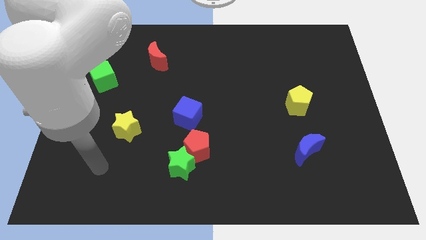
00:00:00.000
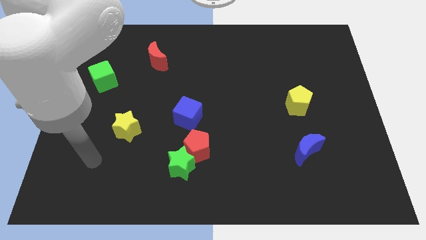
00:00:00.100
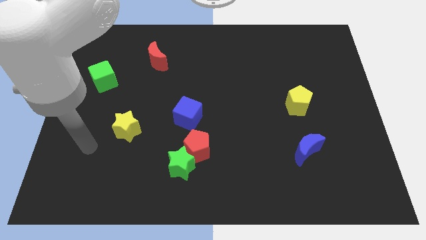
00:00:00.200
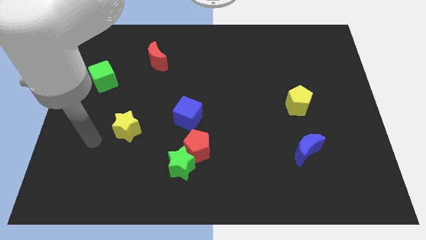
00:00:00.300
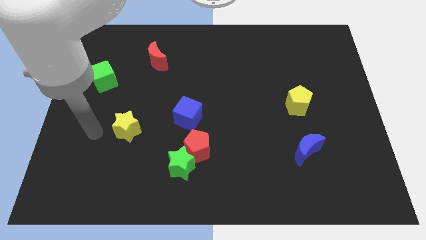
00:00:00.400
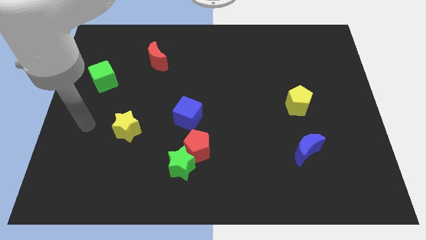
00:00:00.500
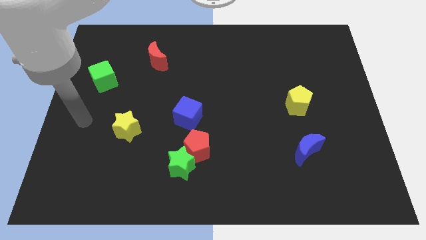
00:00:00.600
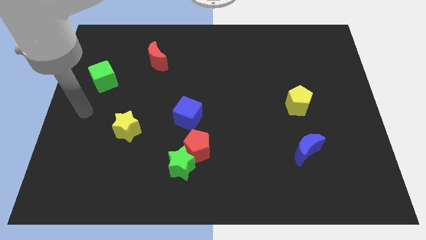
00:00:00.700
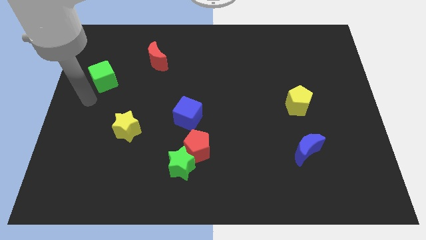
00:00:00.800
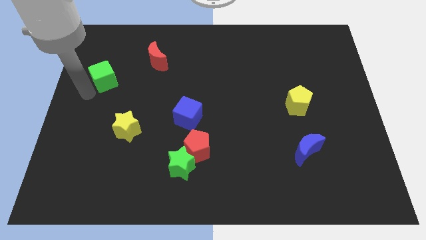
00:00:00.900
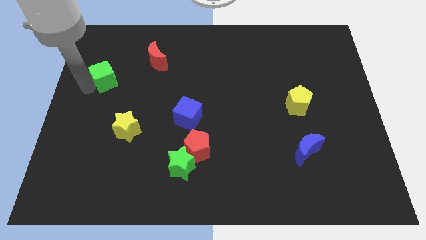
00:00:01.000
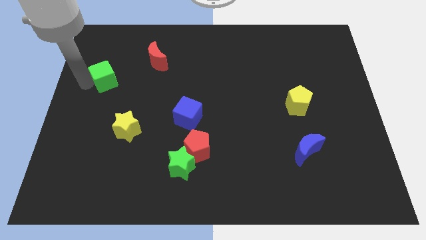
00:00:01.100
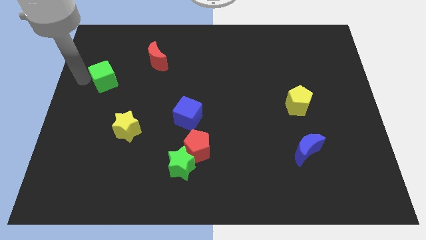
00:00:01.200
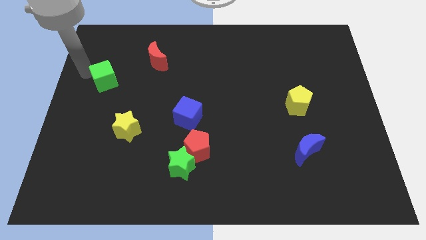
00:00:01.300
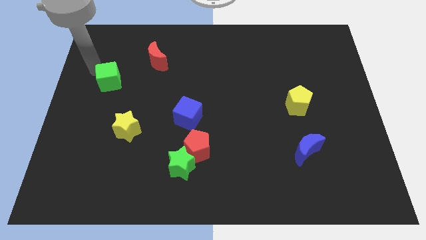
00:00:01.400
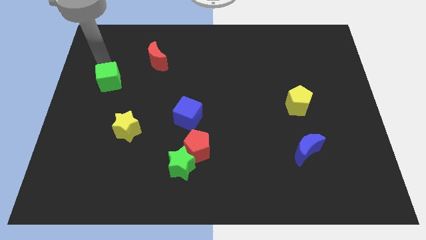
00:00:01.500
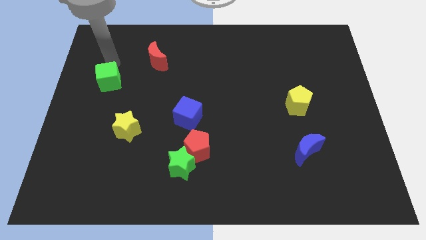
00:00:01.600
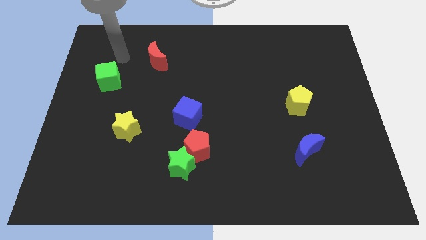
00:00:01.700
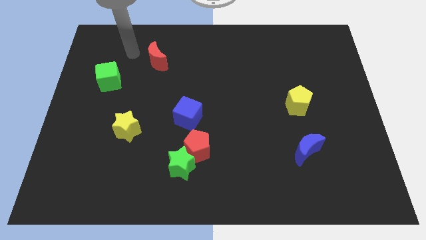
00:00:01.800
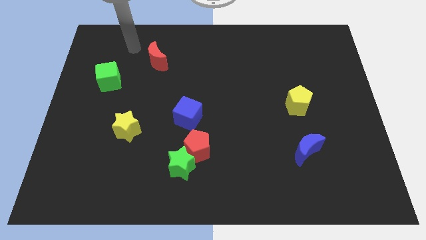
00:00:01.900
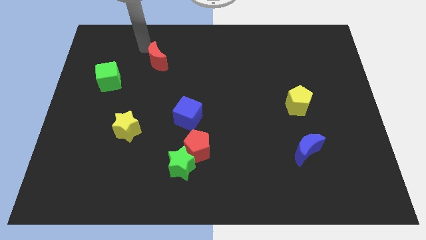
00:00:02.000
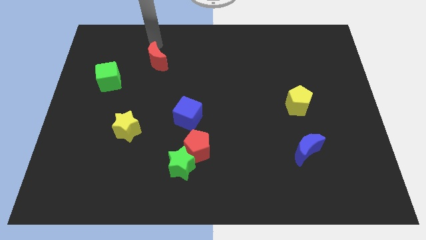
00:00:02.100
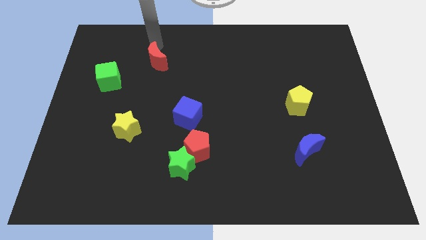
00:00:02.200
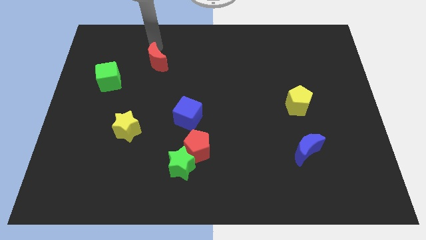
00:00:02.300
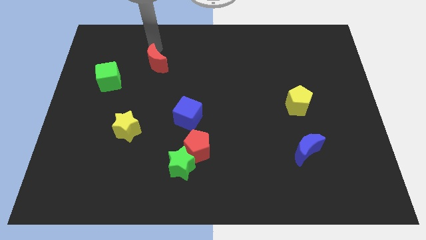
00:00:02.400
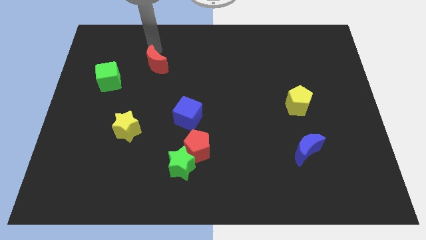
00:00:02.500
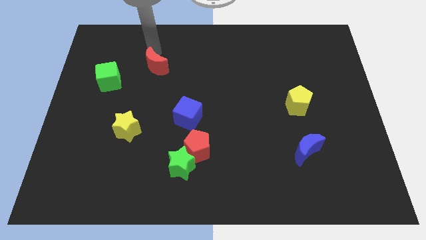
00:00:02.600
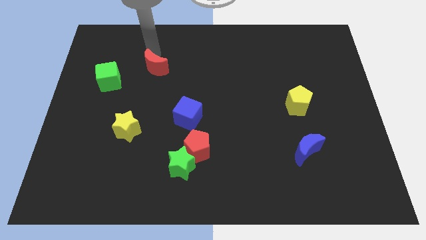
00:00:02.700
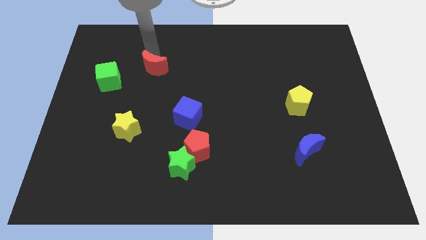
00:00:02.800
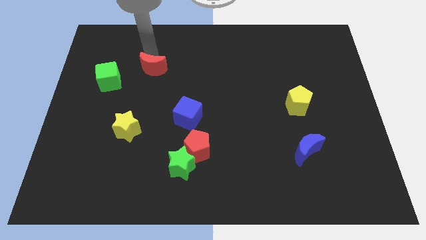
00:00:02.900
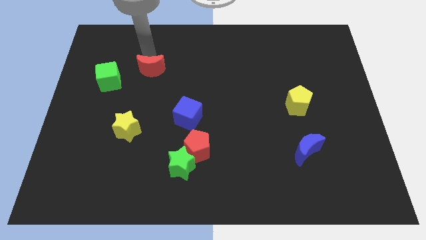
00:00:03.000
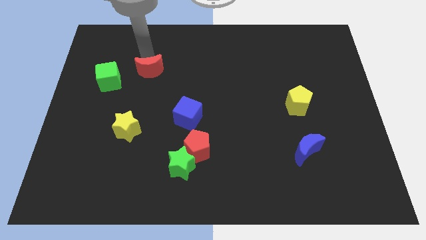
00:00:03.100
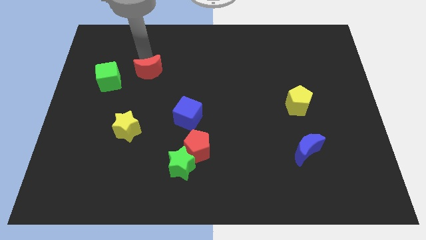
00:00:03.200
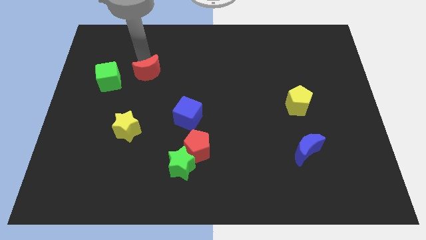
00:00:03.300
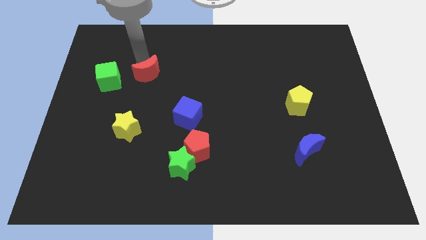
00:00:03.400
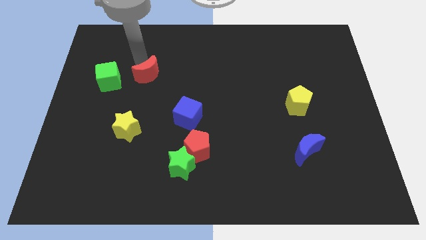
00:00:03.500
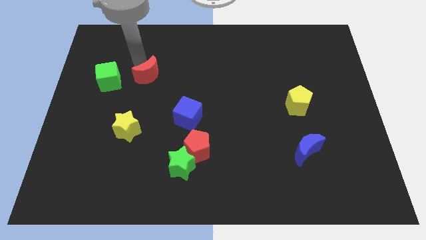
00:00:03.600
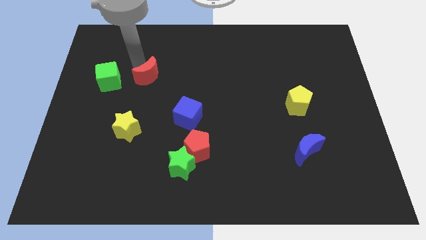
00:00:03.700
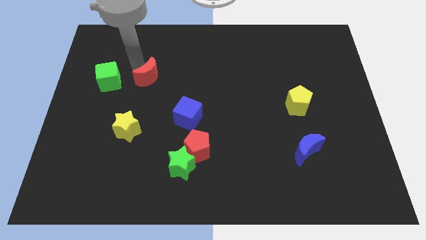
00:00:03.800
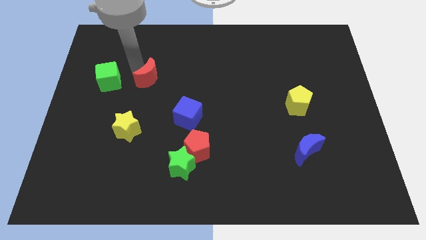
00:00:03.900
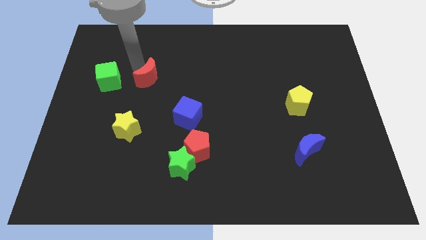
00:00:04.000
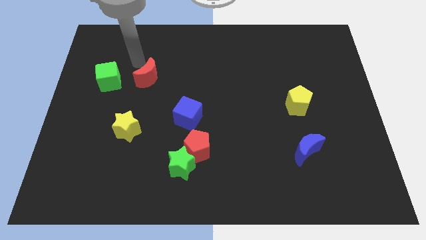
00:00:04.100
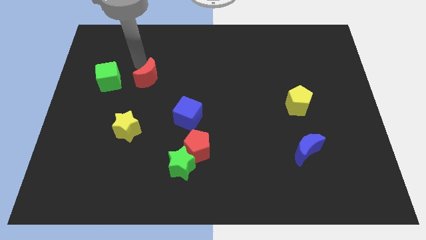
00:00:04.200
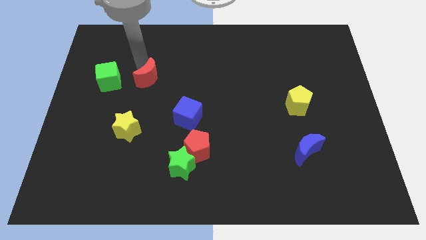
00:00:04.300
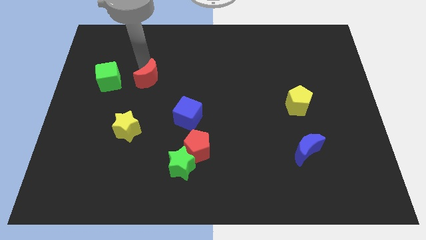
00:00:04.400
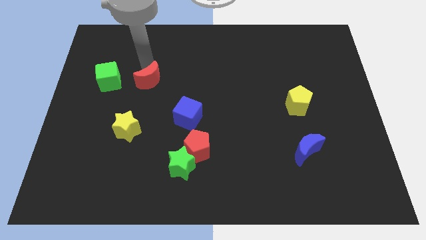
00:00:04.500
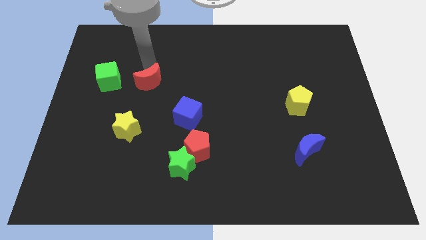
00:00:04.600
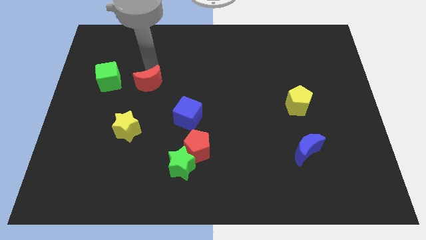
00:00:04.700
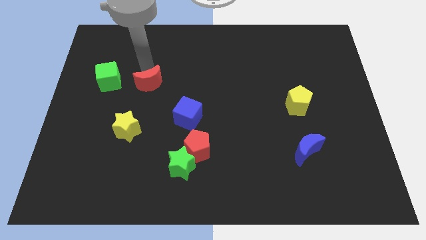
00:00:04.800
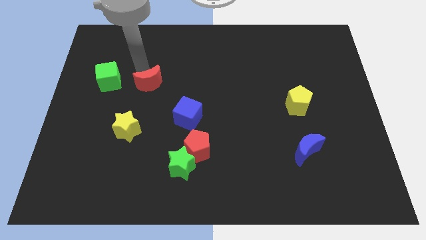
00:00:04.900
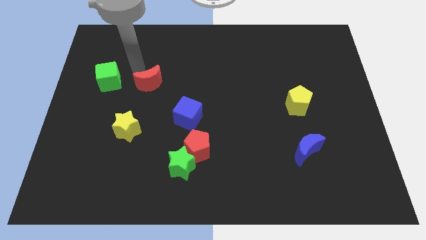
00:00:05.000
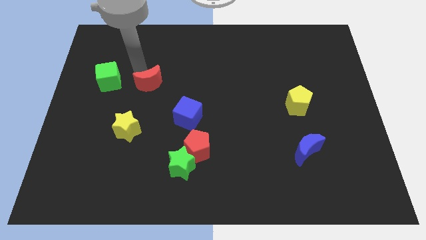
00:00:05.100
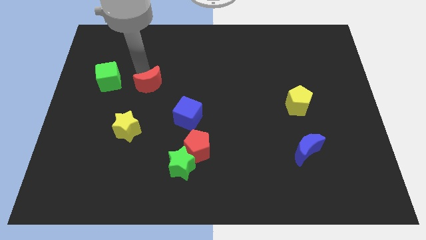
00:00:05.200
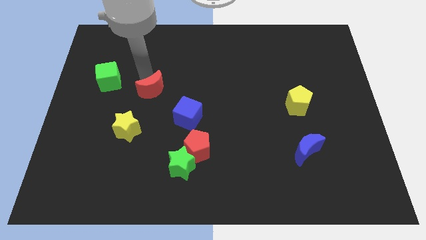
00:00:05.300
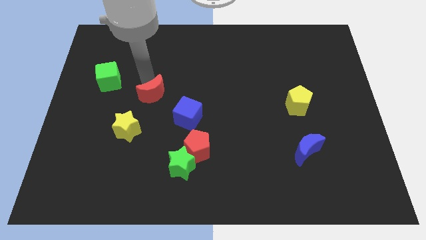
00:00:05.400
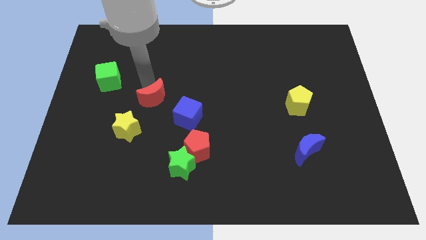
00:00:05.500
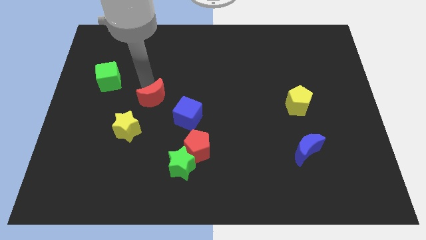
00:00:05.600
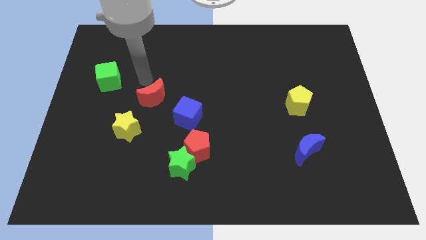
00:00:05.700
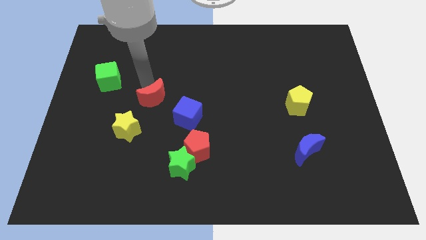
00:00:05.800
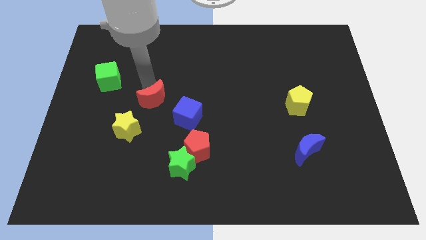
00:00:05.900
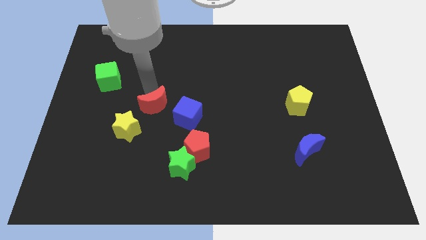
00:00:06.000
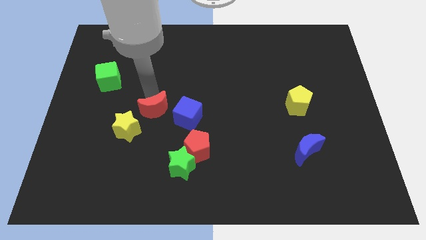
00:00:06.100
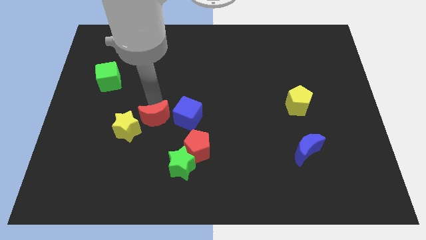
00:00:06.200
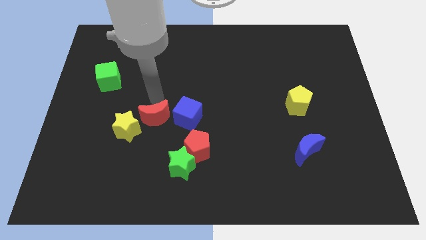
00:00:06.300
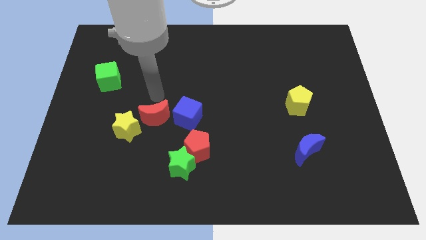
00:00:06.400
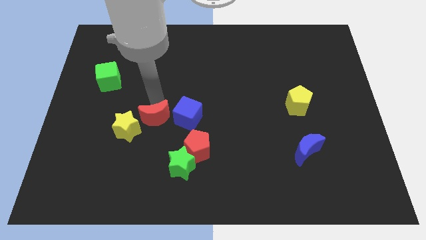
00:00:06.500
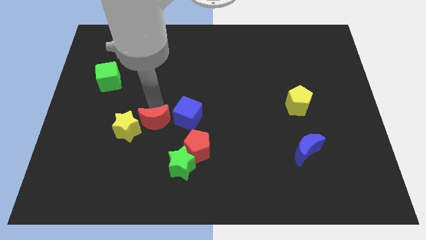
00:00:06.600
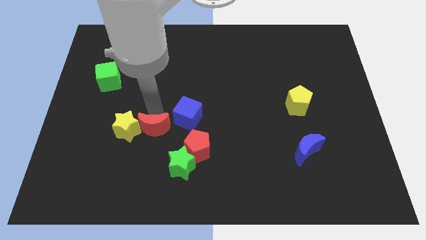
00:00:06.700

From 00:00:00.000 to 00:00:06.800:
slide the red moon down

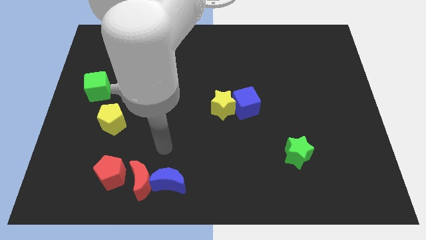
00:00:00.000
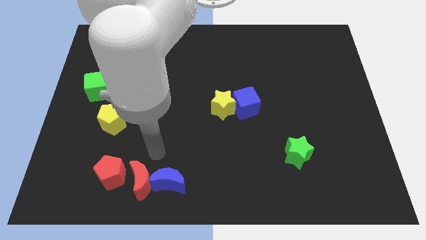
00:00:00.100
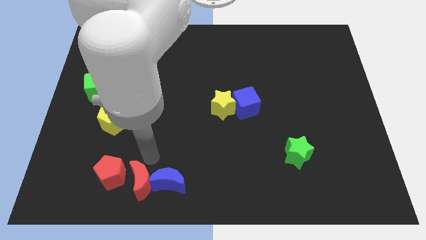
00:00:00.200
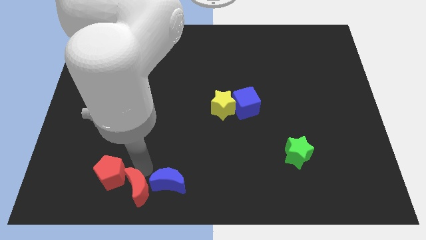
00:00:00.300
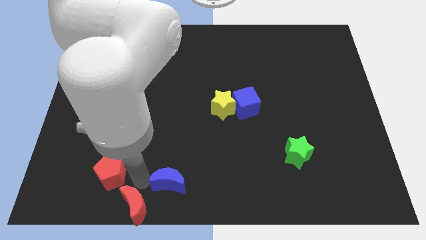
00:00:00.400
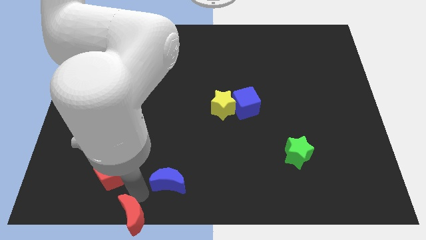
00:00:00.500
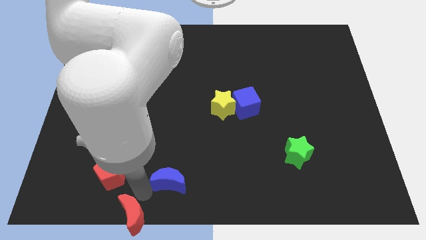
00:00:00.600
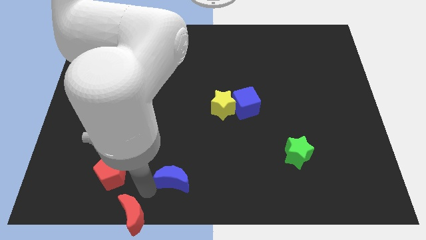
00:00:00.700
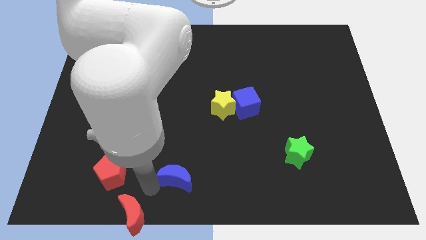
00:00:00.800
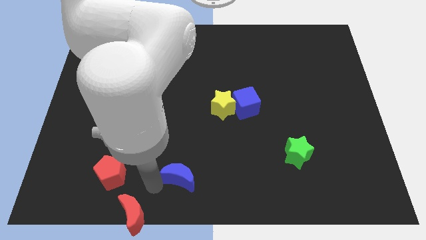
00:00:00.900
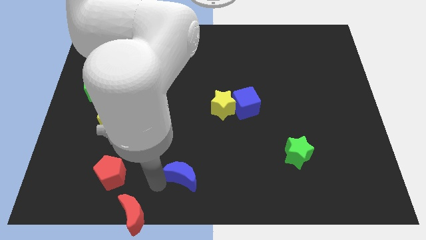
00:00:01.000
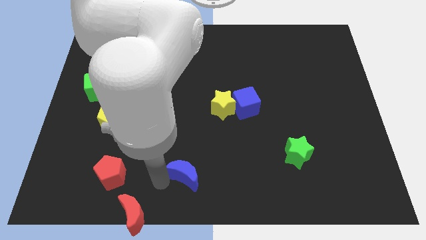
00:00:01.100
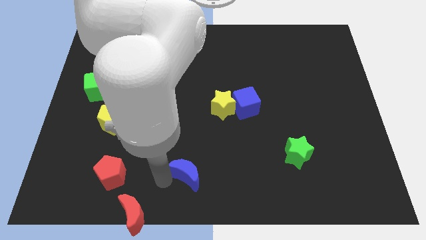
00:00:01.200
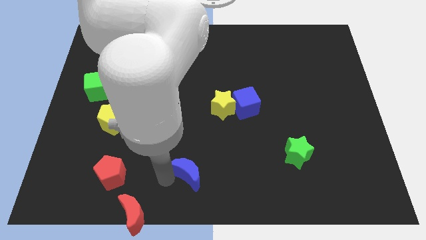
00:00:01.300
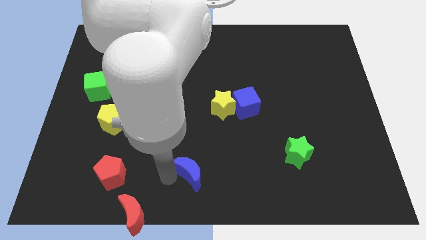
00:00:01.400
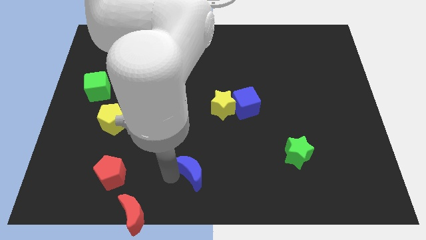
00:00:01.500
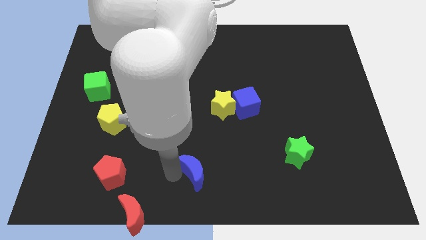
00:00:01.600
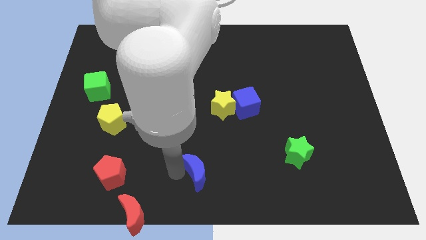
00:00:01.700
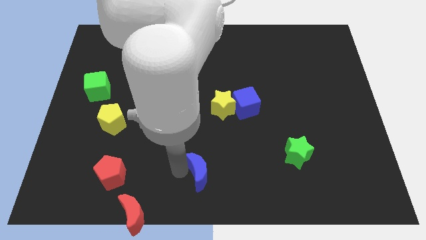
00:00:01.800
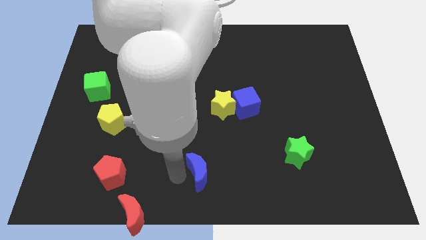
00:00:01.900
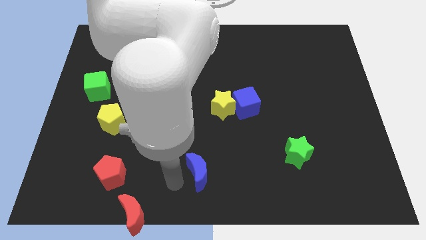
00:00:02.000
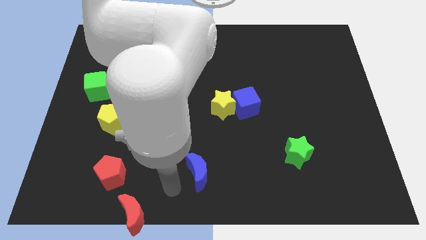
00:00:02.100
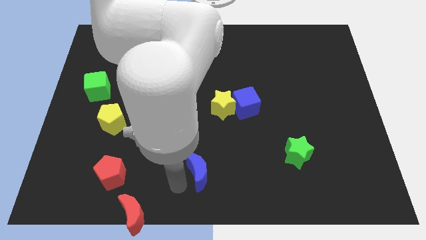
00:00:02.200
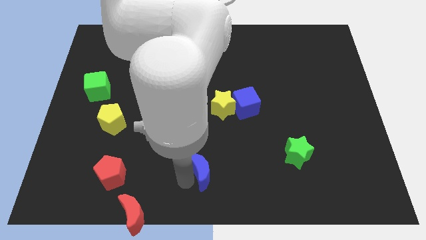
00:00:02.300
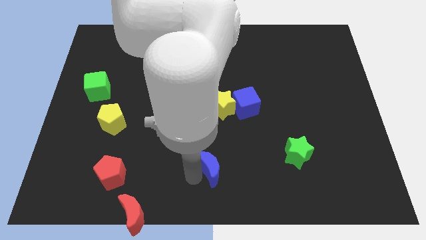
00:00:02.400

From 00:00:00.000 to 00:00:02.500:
slide the blue moon a little bit diagonally up and right
